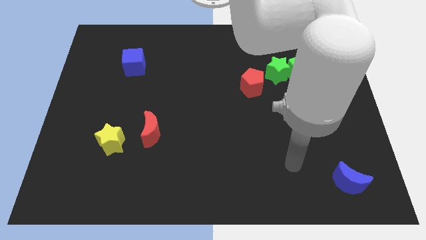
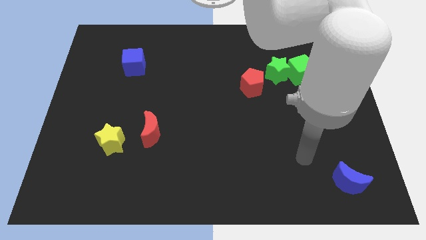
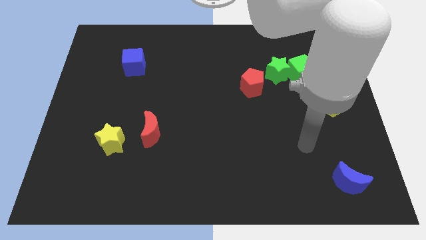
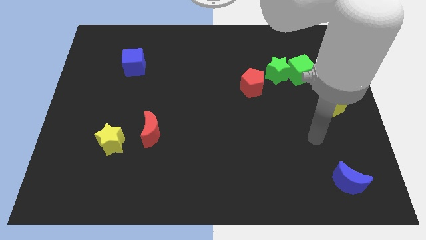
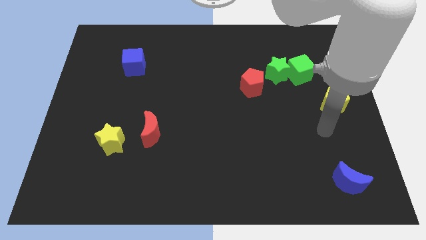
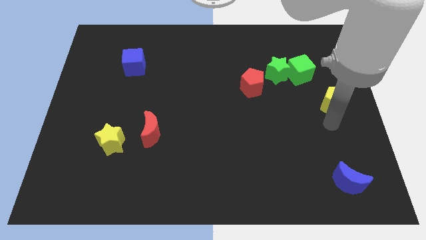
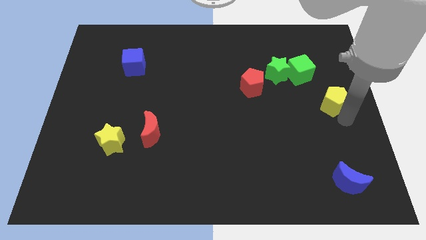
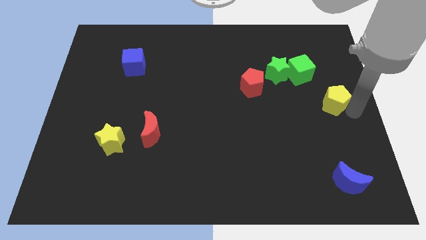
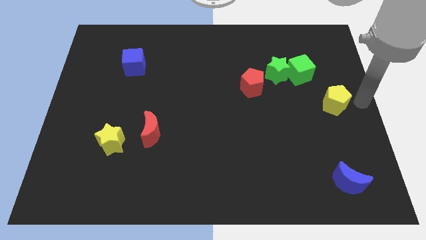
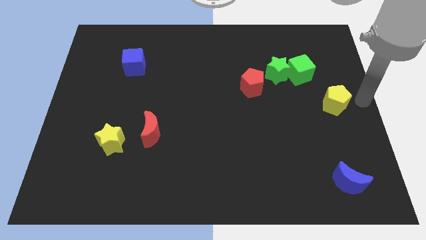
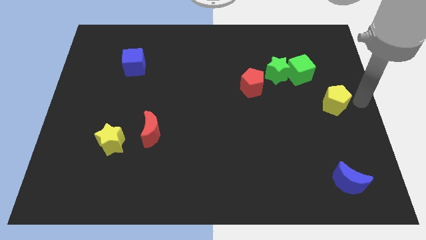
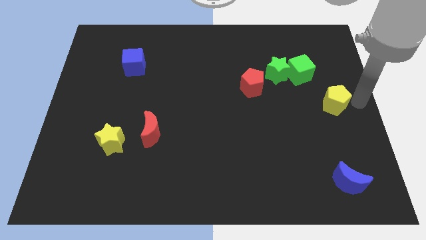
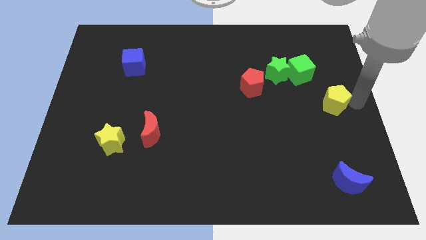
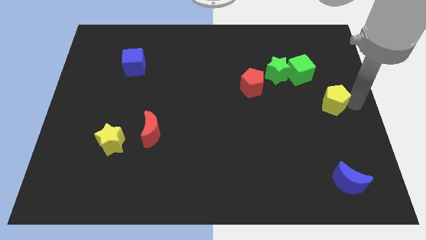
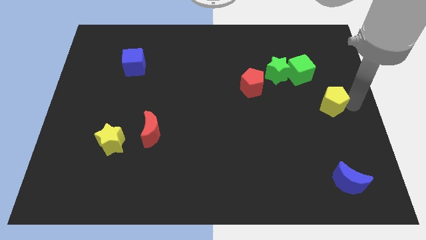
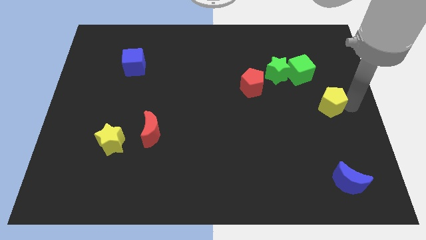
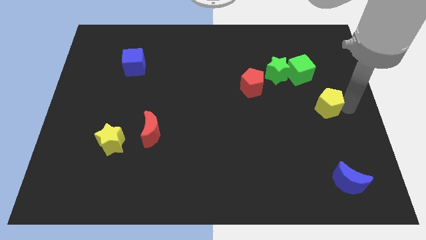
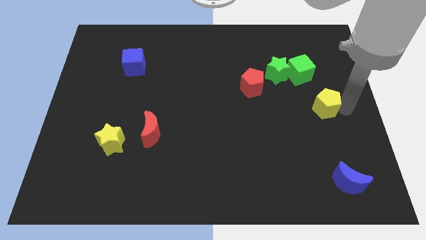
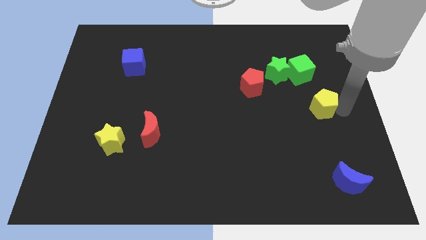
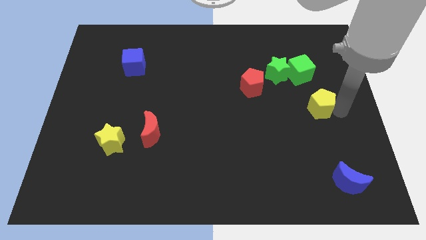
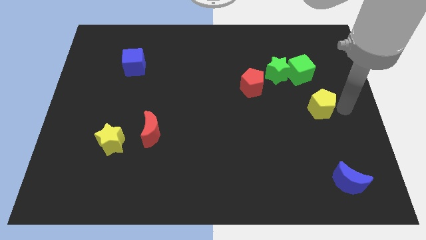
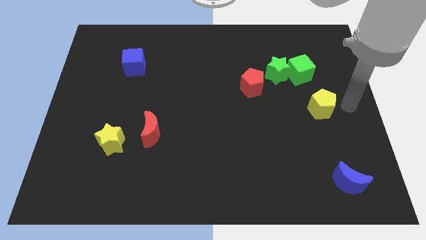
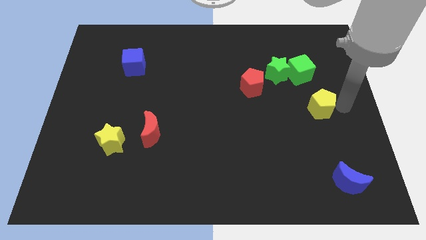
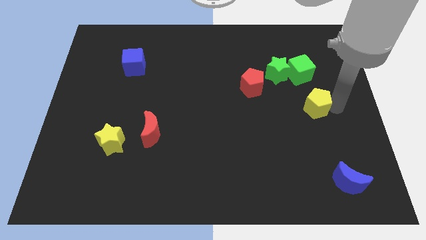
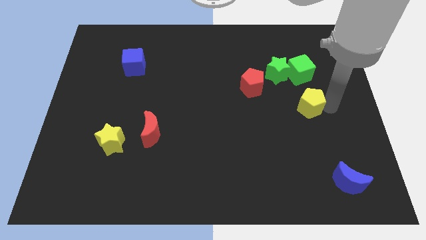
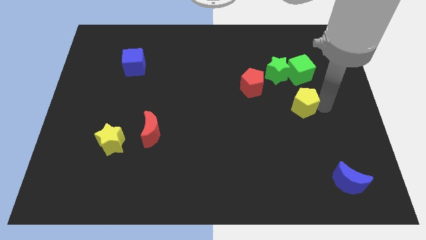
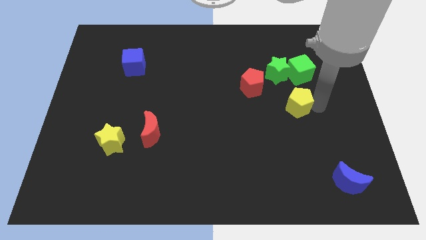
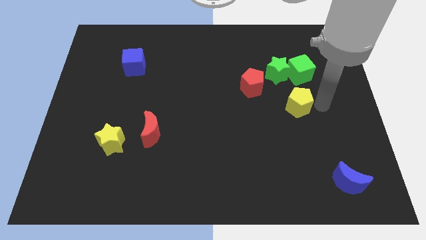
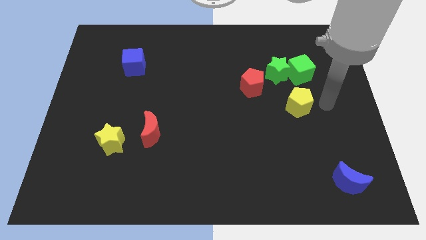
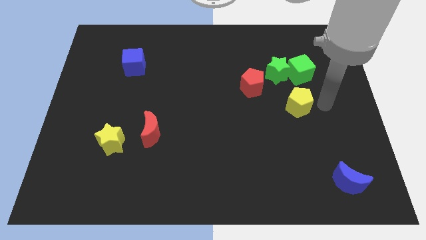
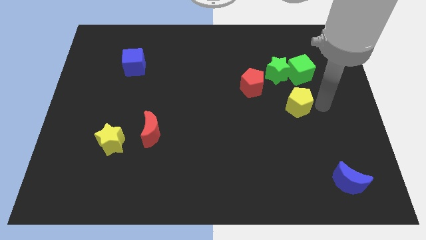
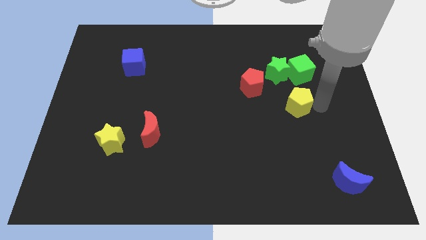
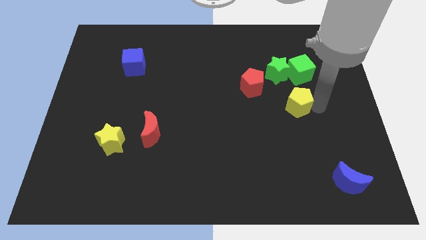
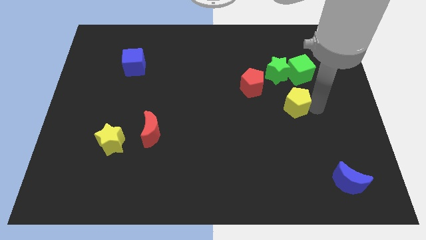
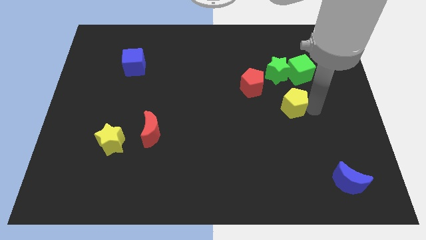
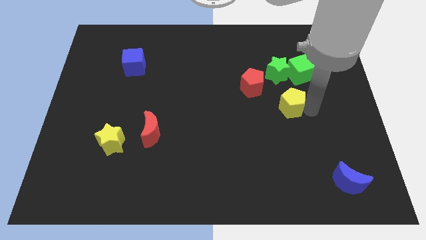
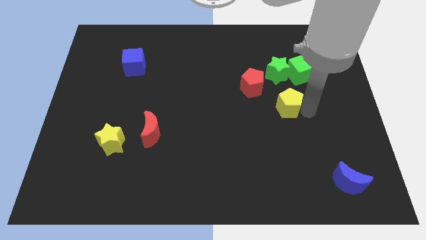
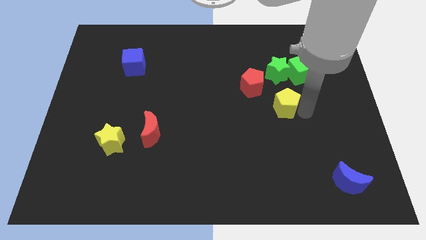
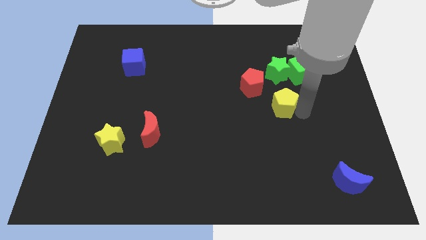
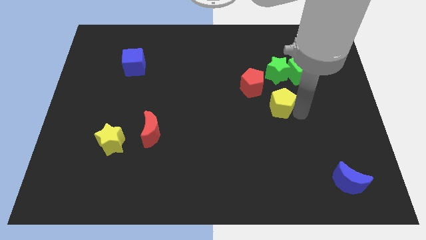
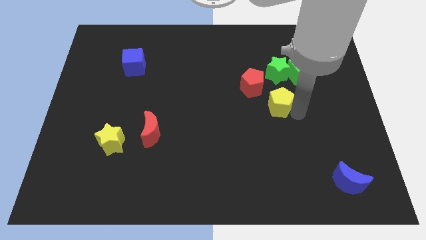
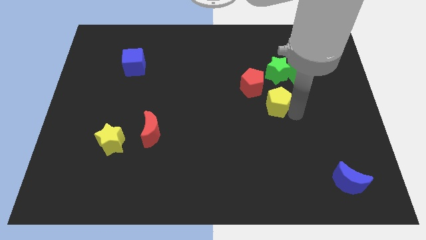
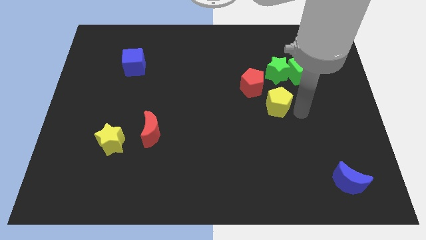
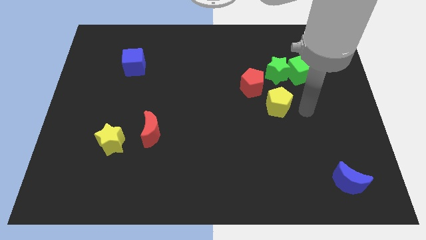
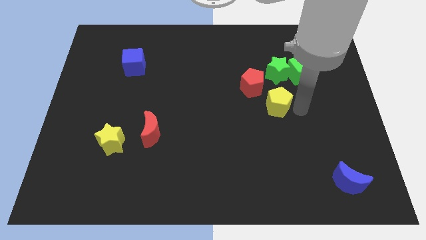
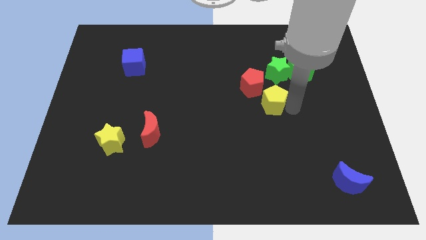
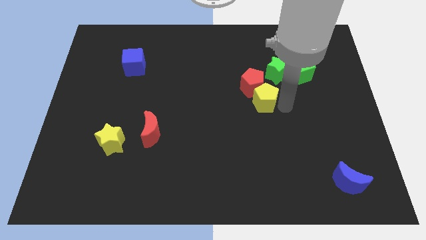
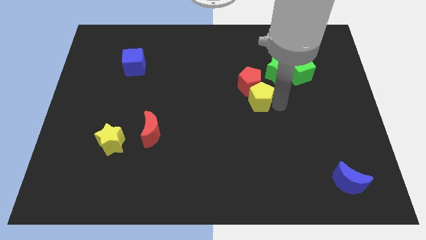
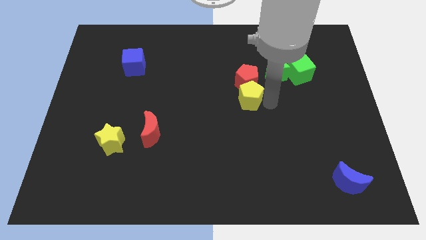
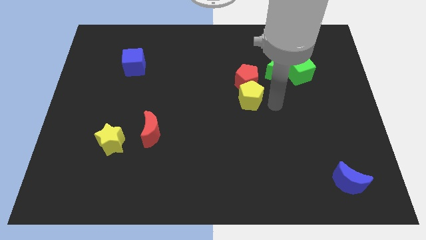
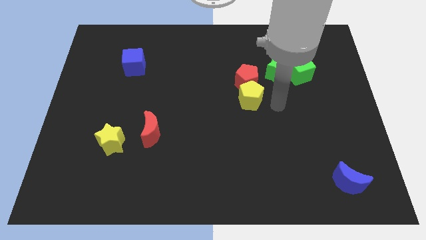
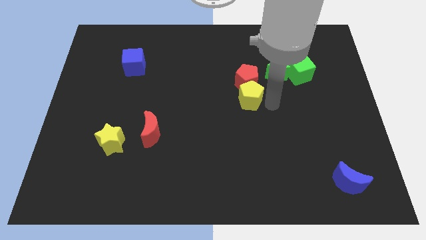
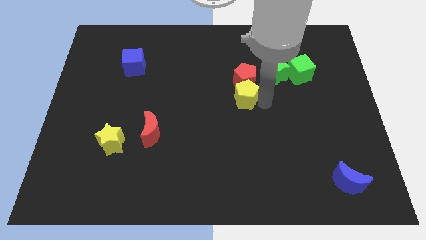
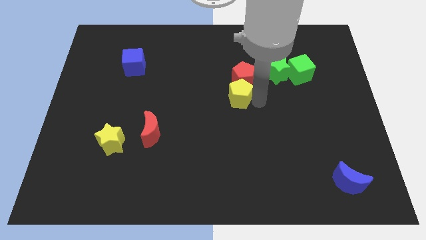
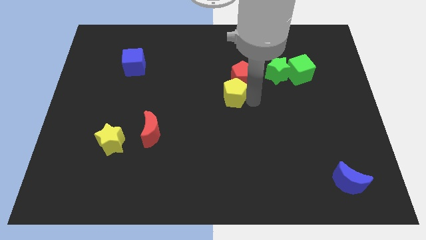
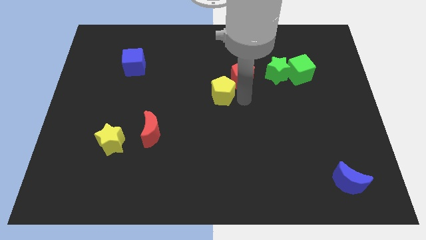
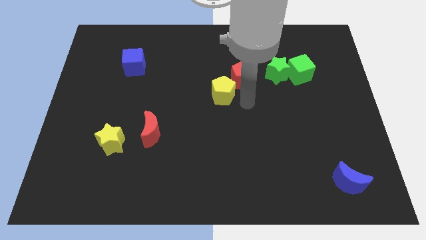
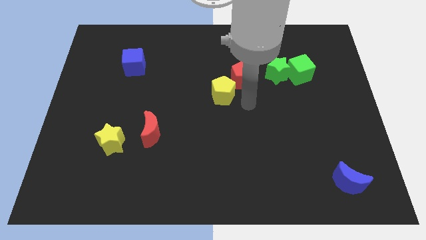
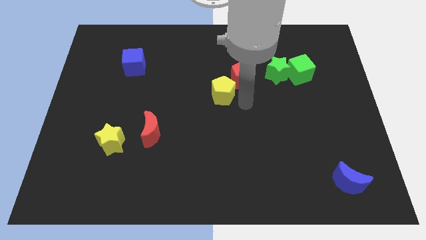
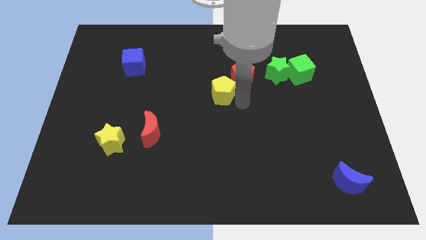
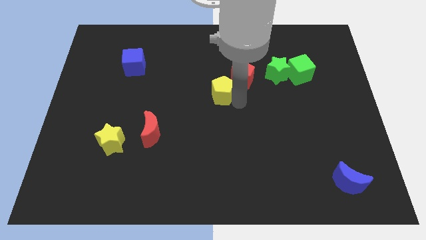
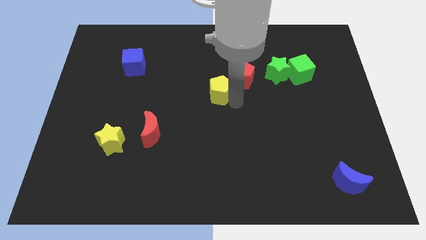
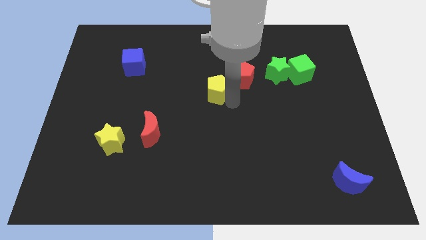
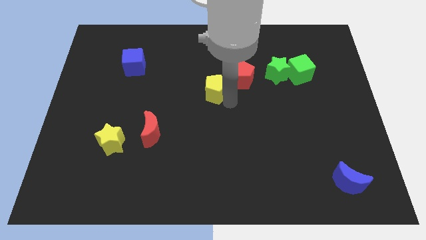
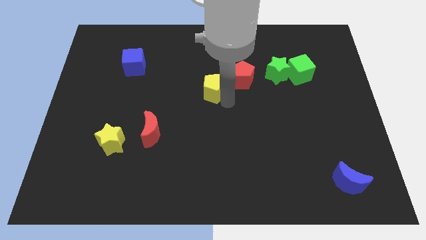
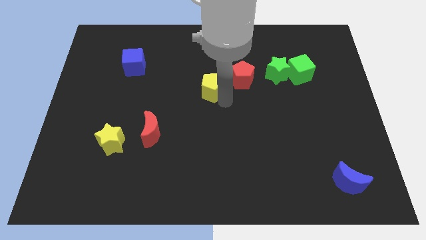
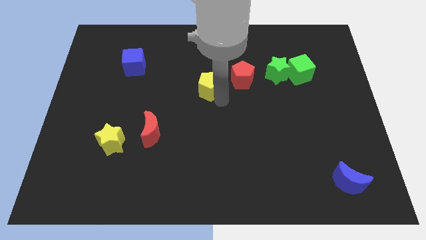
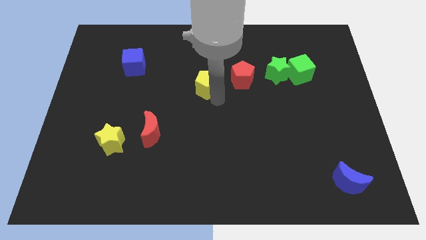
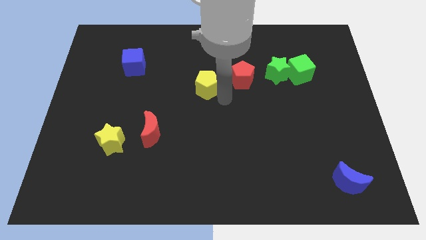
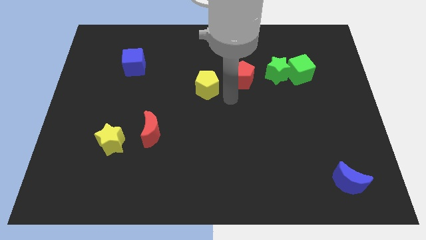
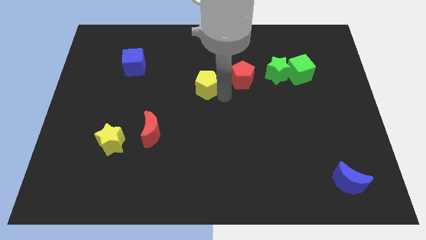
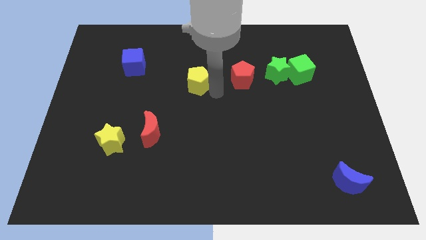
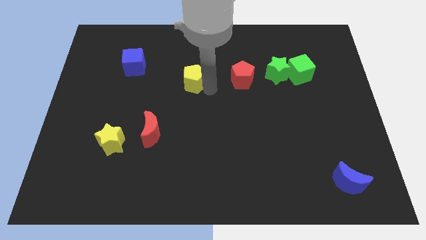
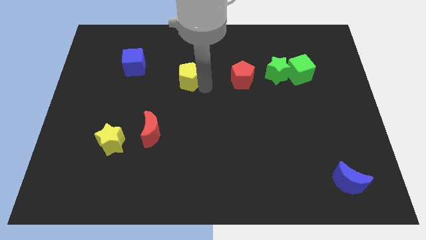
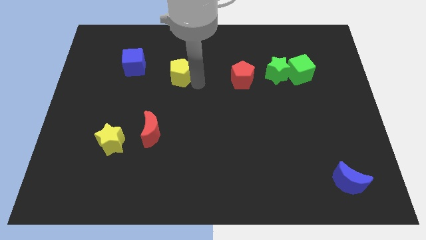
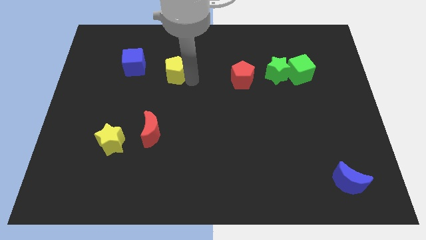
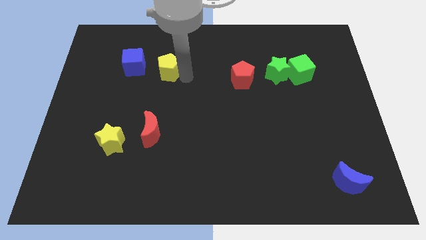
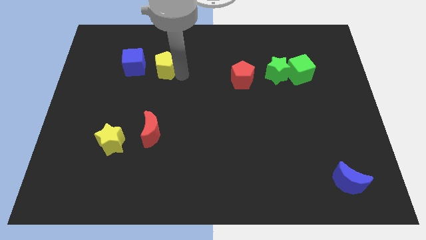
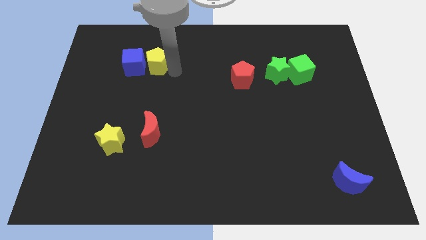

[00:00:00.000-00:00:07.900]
move the yellow pentagon towards the blue cube
